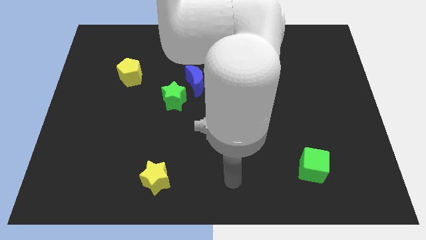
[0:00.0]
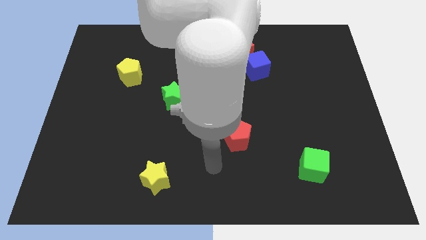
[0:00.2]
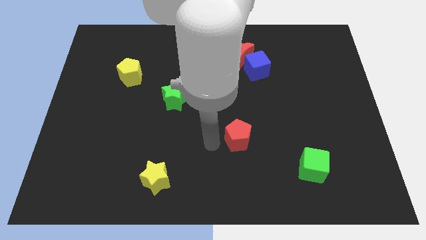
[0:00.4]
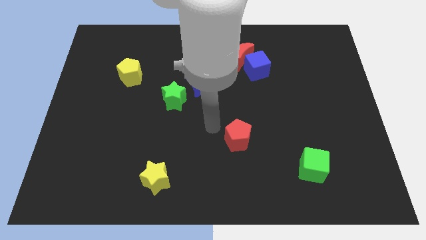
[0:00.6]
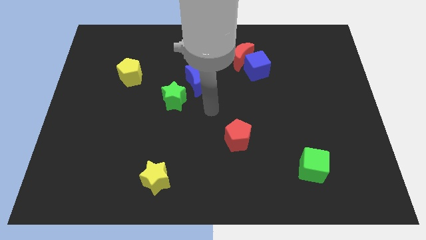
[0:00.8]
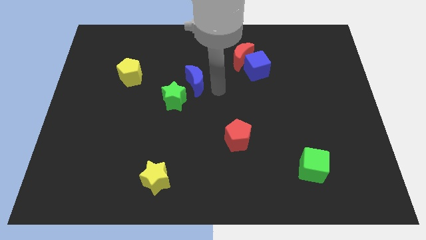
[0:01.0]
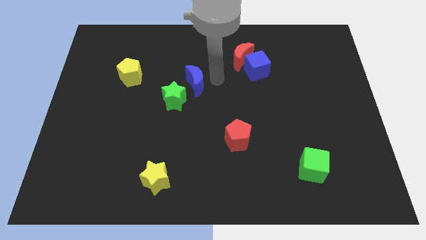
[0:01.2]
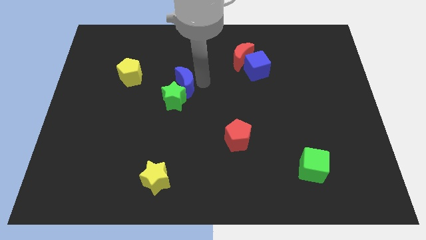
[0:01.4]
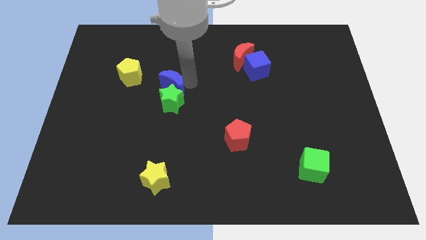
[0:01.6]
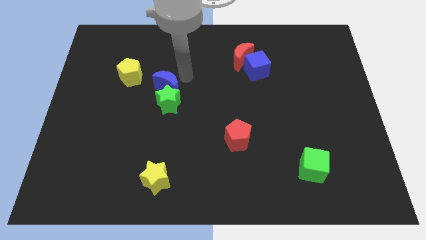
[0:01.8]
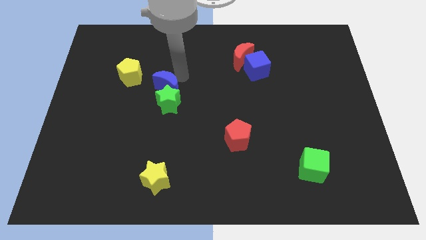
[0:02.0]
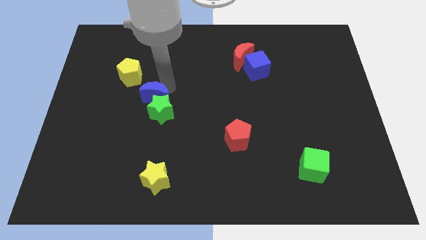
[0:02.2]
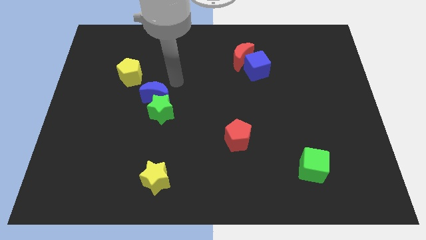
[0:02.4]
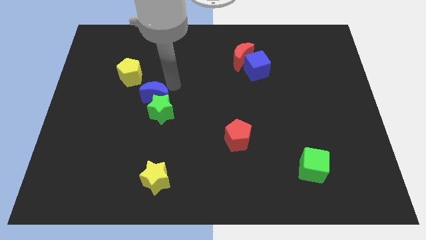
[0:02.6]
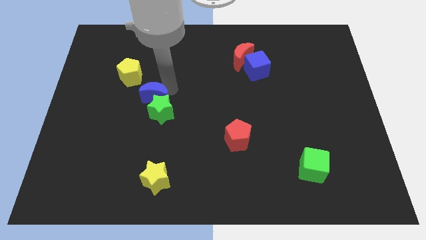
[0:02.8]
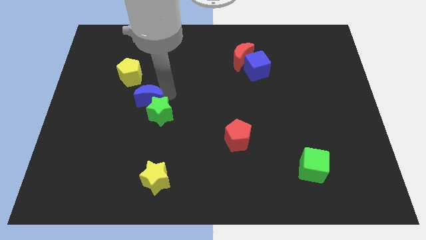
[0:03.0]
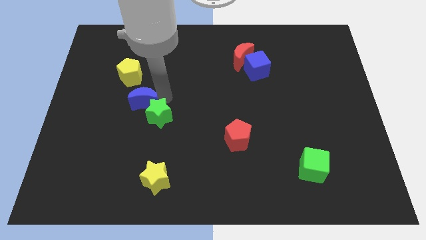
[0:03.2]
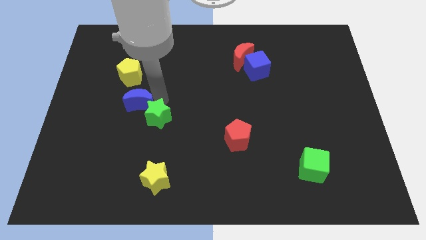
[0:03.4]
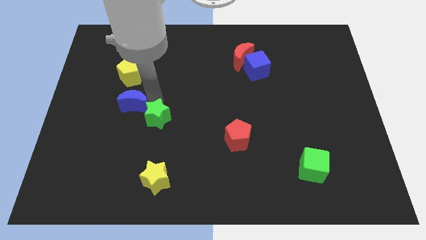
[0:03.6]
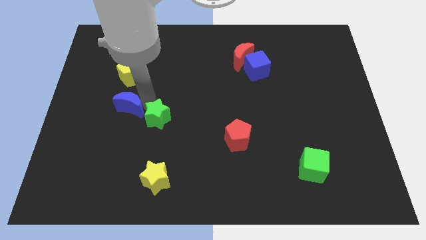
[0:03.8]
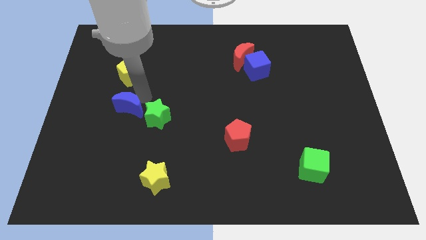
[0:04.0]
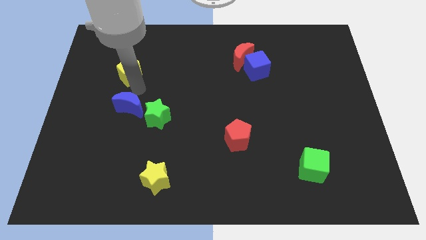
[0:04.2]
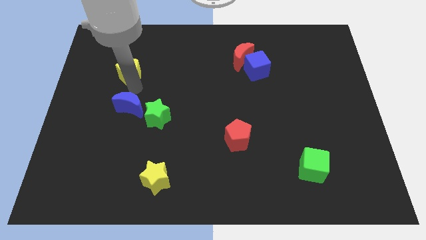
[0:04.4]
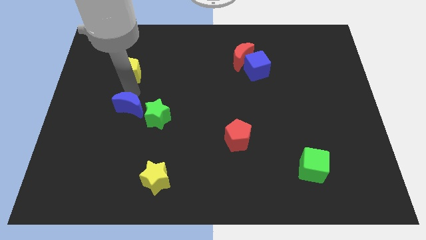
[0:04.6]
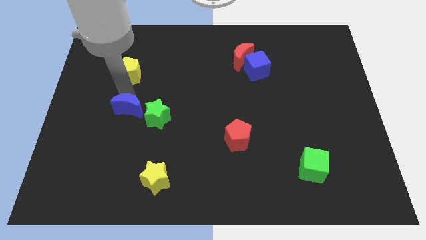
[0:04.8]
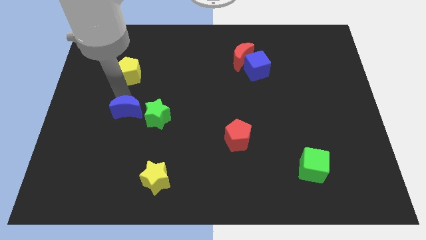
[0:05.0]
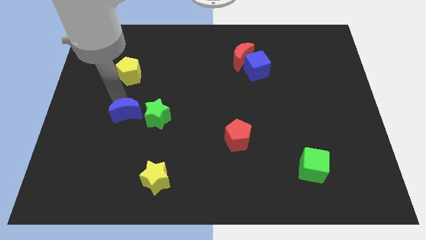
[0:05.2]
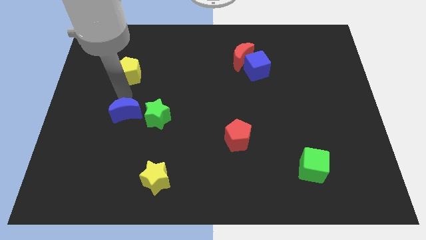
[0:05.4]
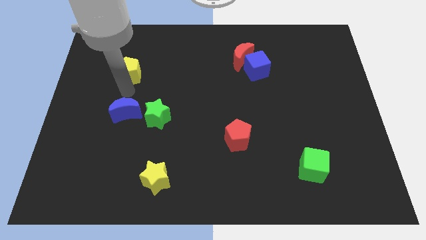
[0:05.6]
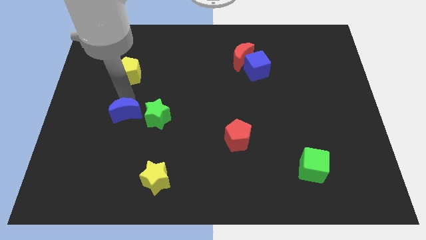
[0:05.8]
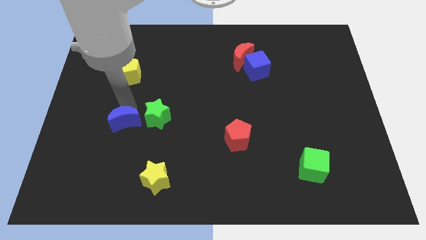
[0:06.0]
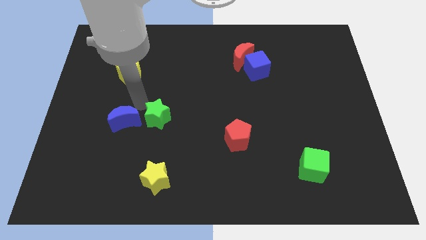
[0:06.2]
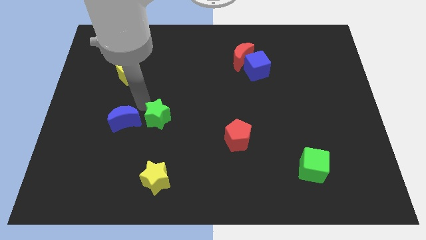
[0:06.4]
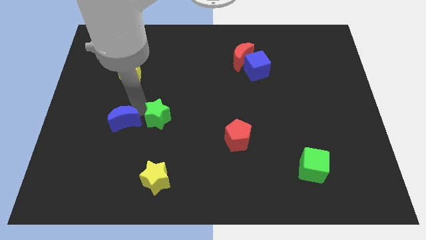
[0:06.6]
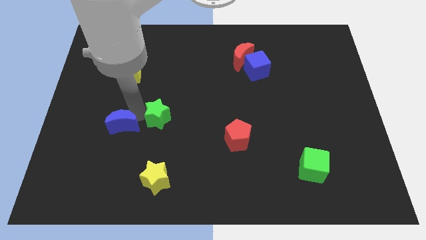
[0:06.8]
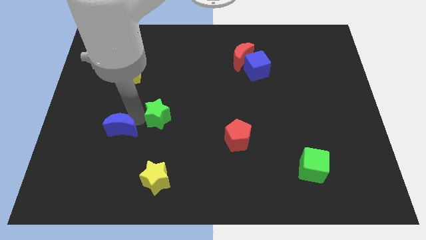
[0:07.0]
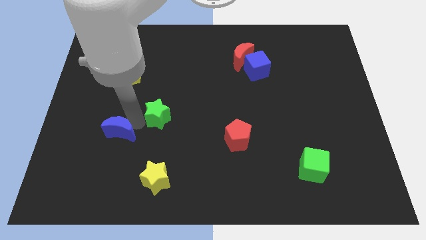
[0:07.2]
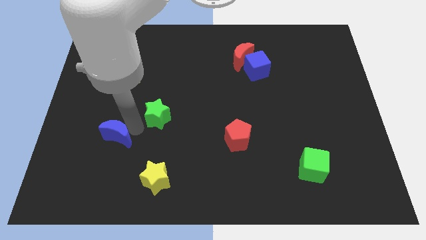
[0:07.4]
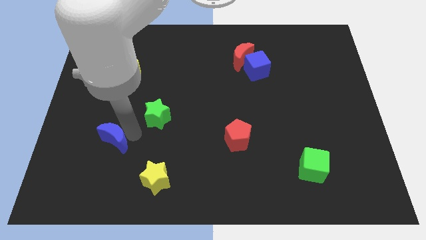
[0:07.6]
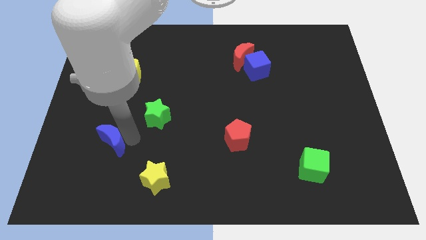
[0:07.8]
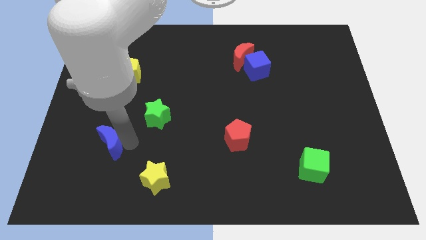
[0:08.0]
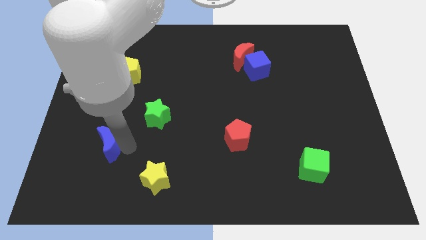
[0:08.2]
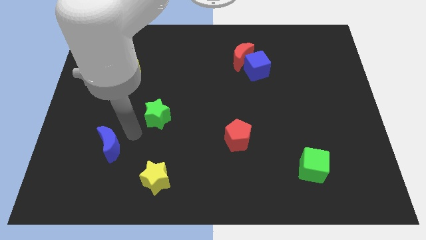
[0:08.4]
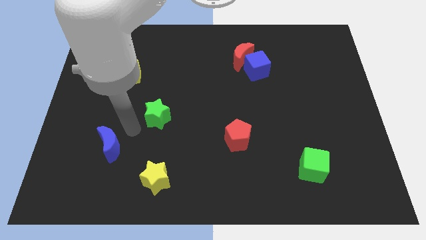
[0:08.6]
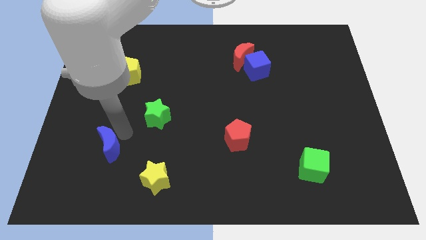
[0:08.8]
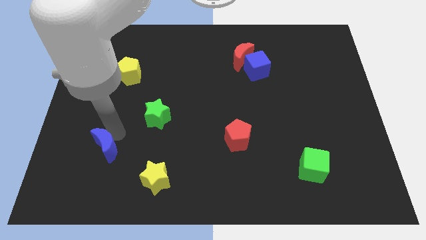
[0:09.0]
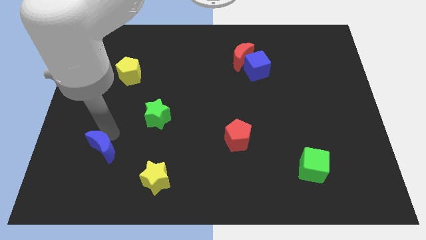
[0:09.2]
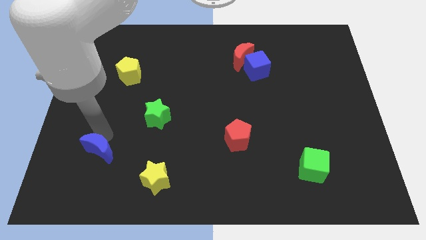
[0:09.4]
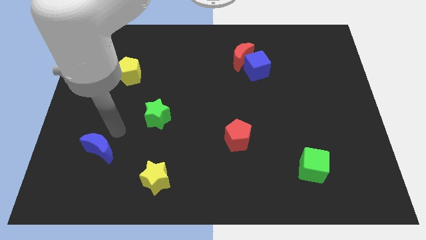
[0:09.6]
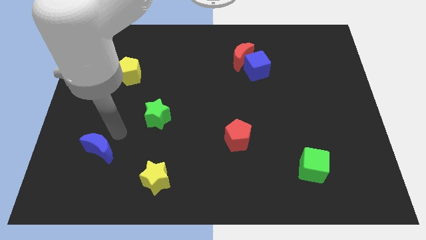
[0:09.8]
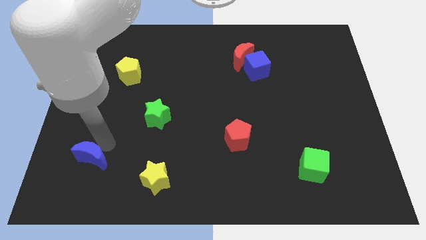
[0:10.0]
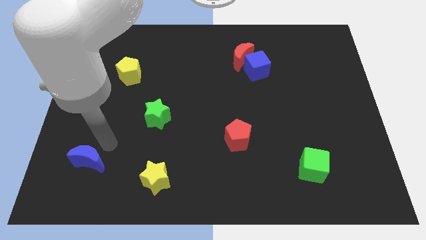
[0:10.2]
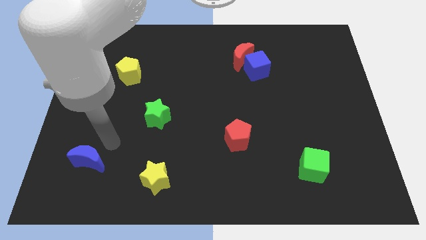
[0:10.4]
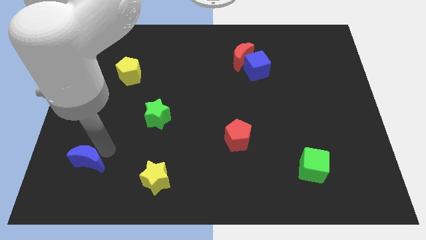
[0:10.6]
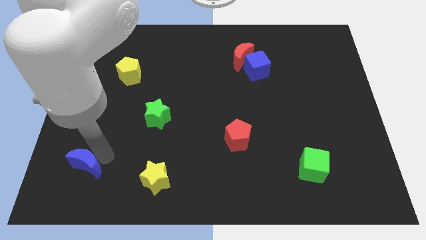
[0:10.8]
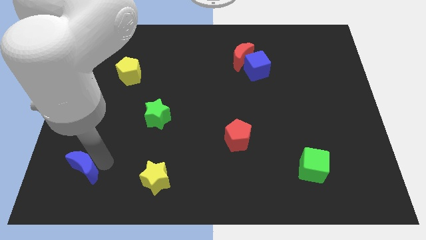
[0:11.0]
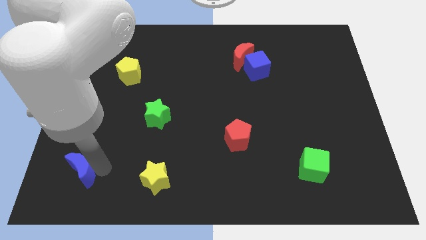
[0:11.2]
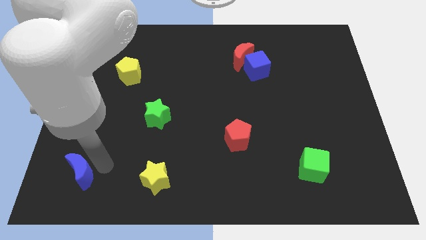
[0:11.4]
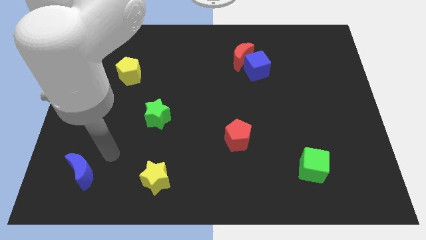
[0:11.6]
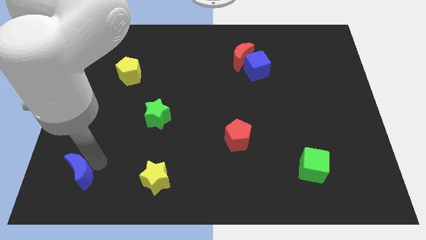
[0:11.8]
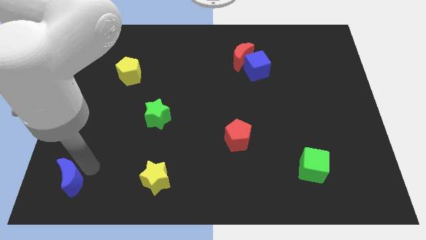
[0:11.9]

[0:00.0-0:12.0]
move the blue moon to the bottom left
